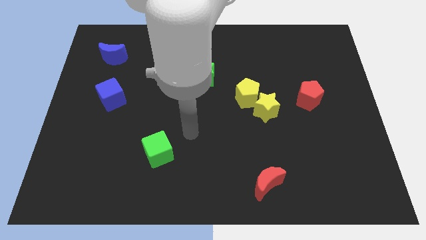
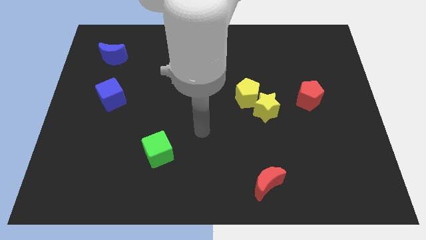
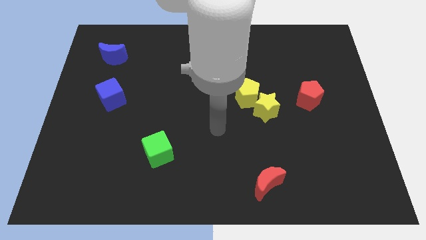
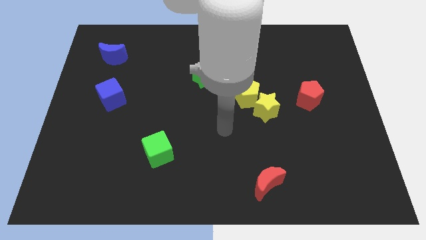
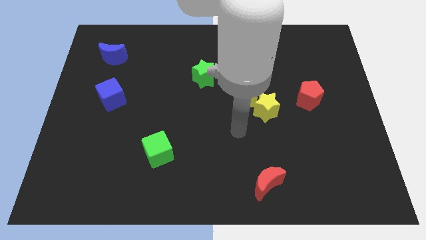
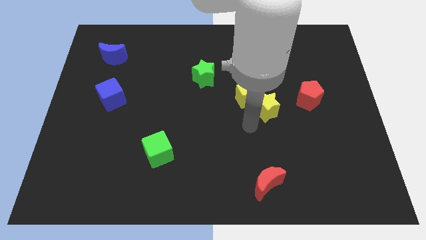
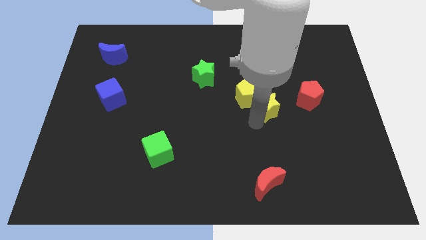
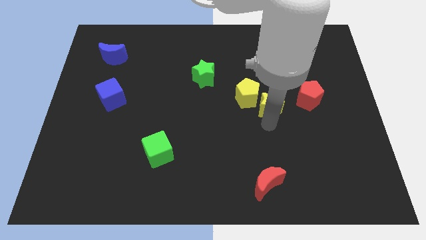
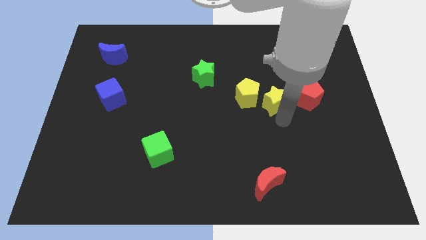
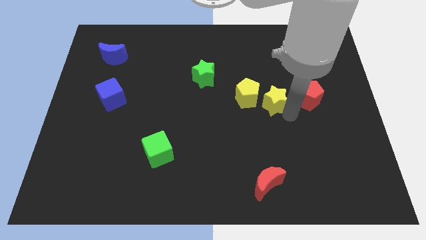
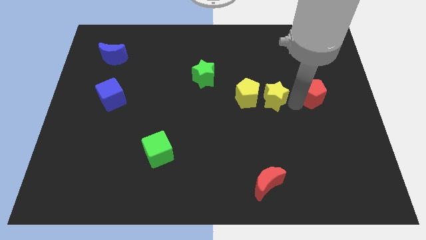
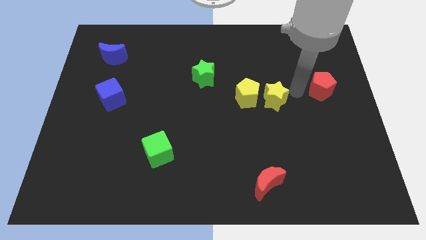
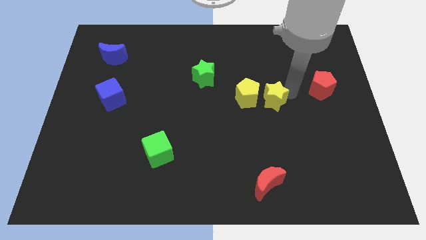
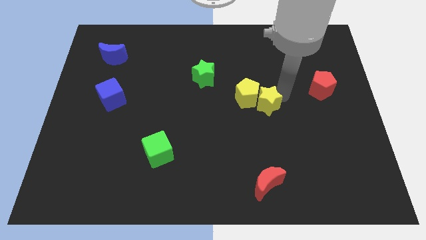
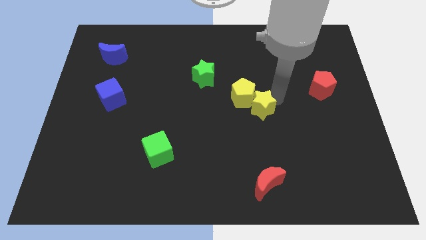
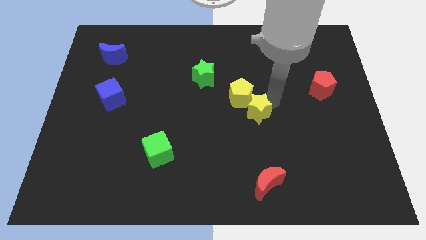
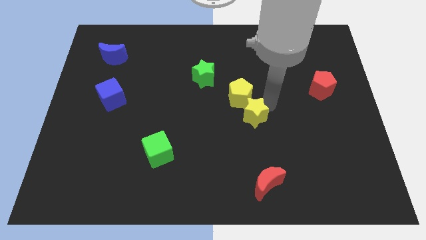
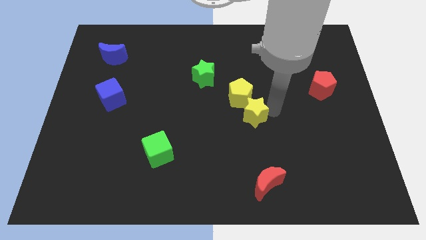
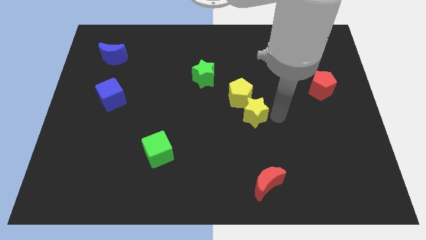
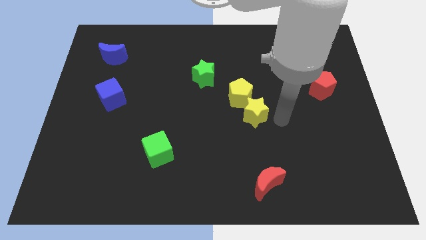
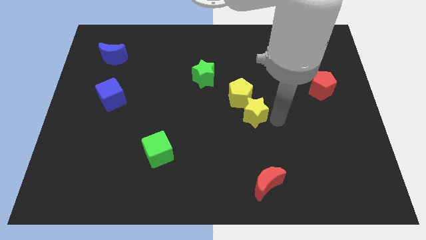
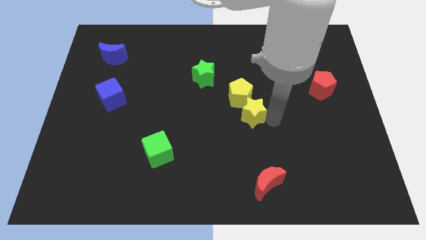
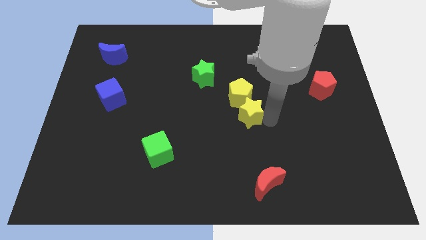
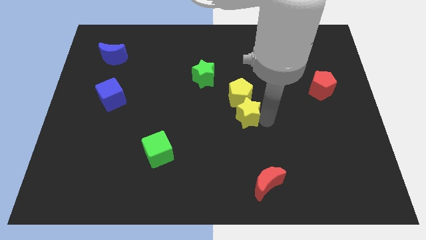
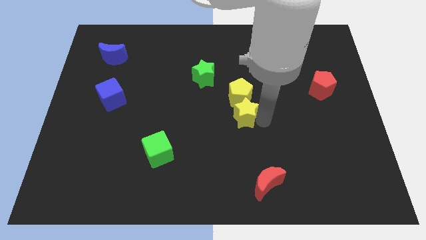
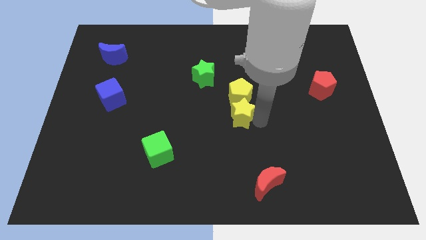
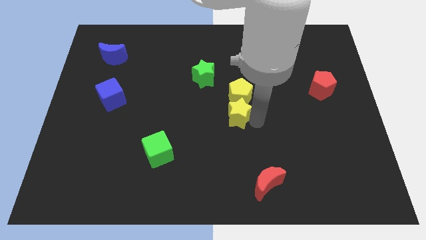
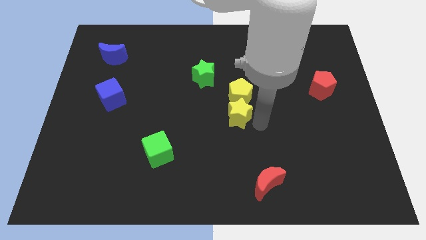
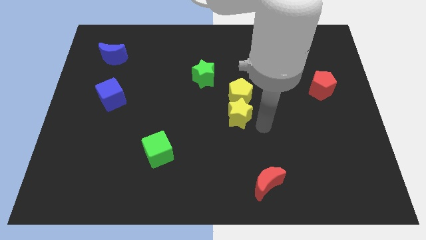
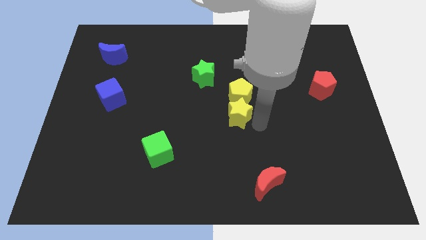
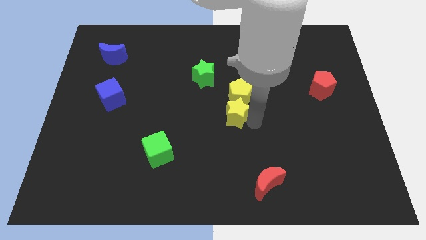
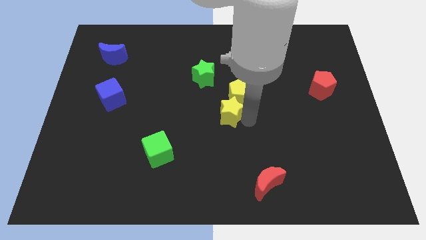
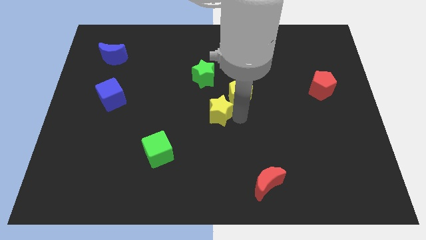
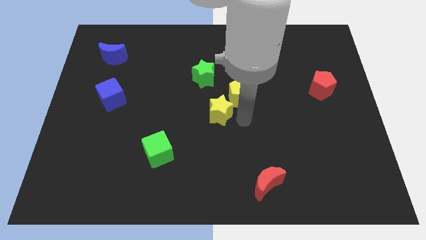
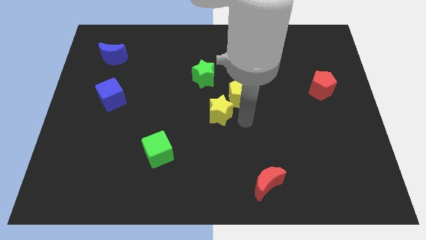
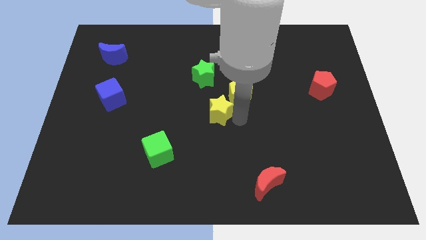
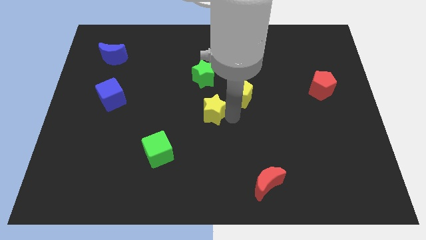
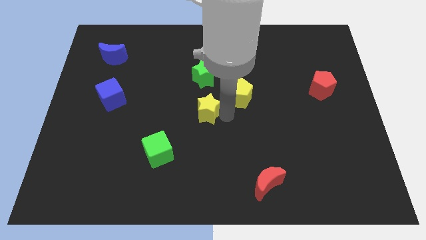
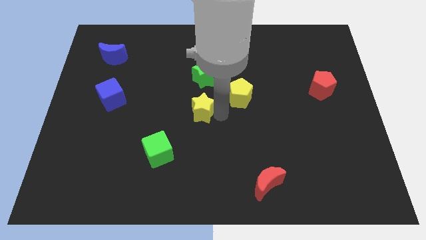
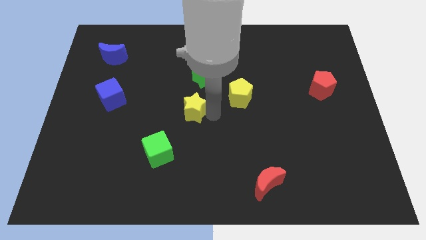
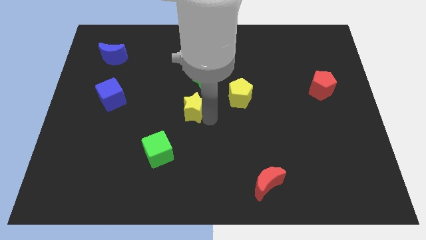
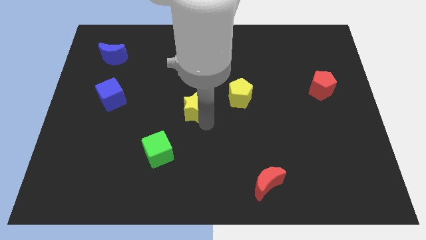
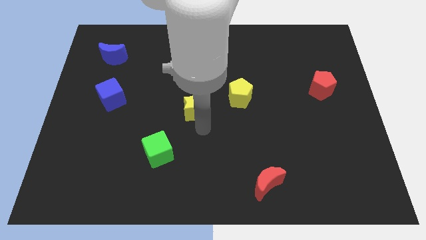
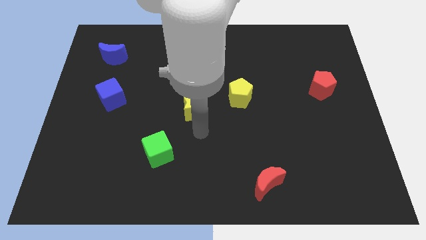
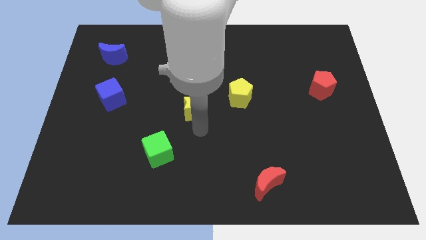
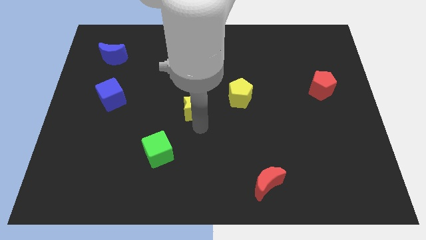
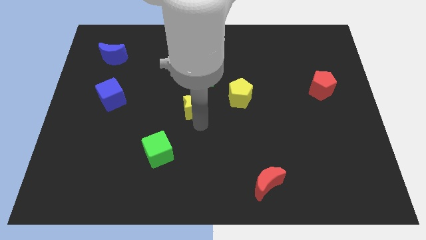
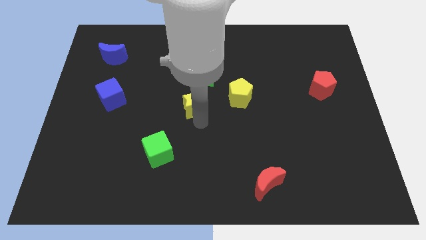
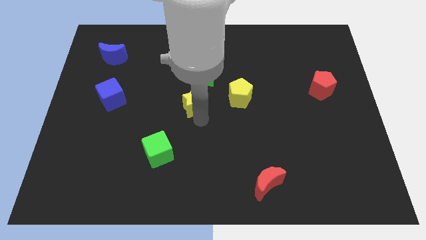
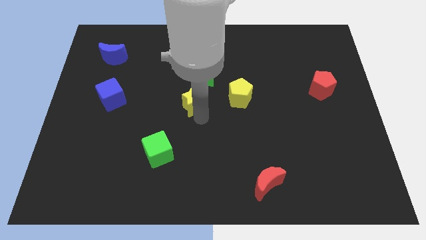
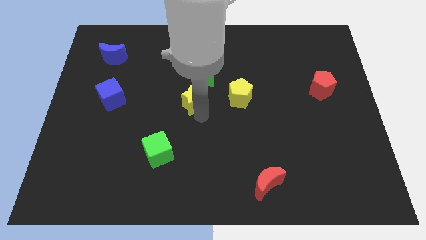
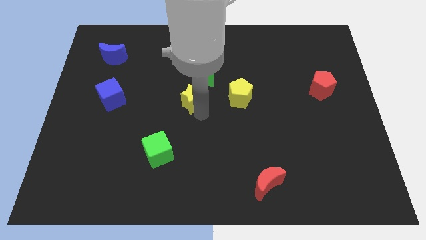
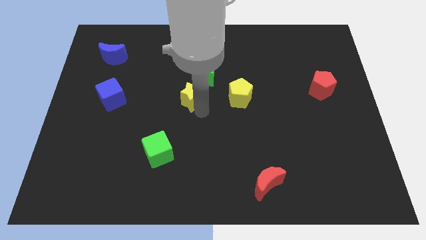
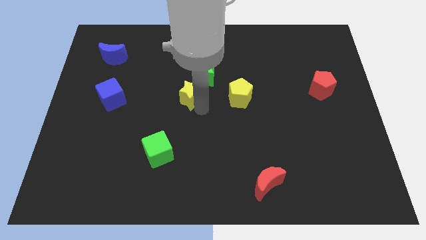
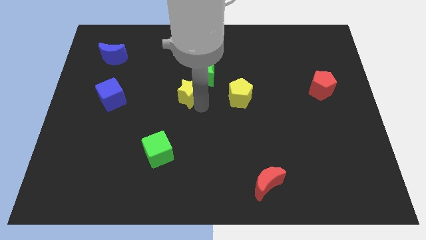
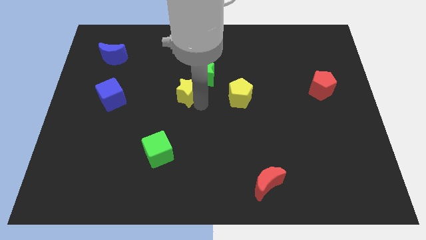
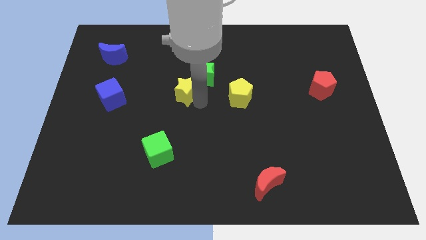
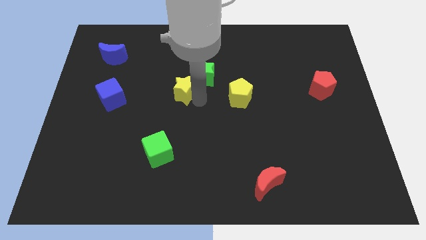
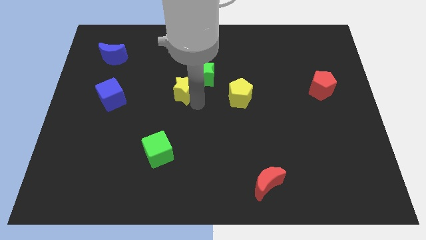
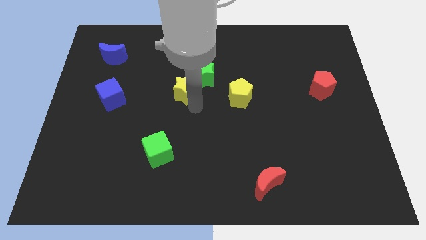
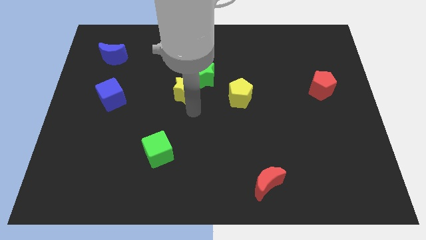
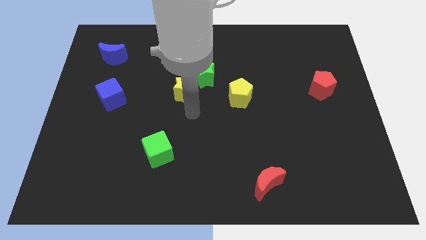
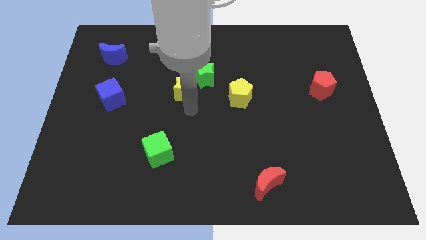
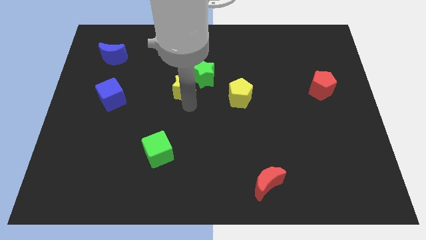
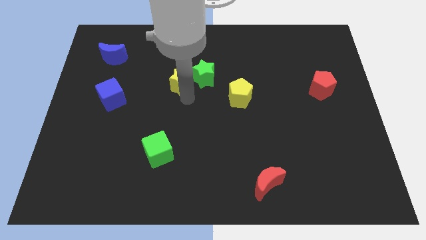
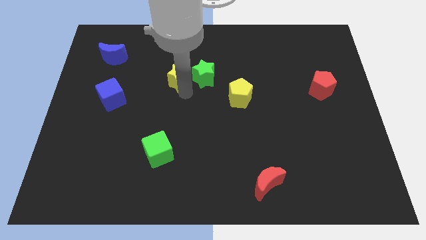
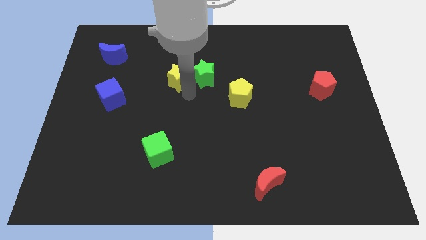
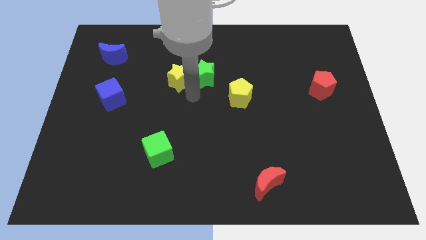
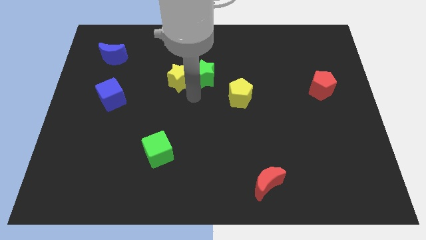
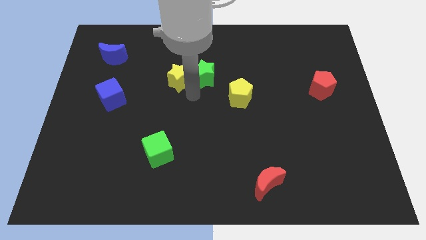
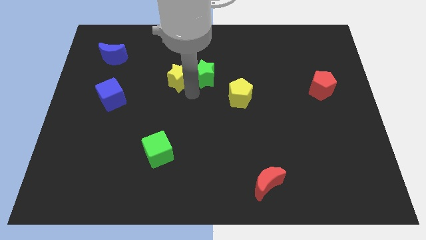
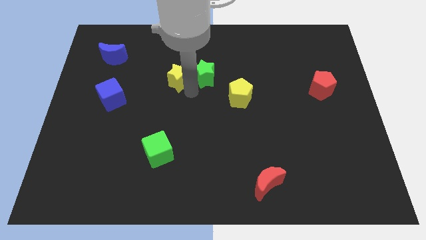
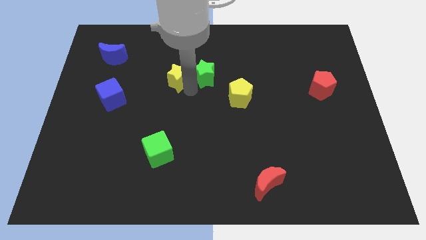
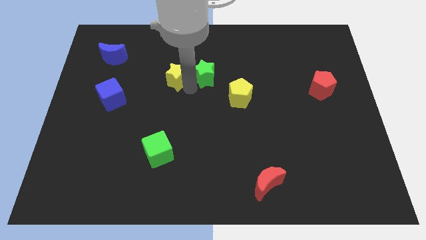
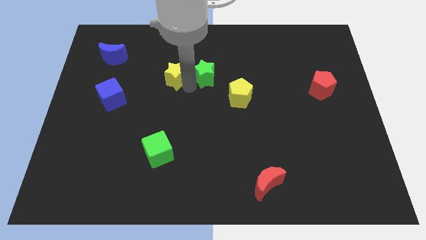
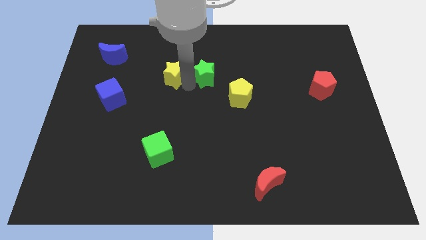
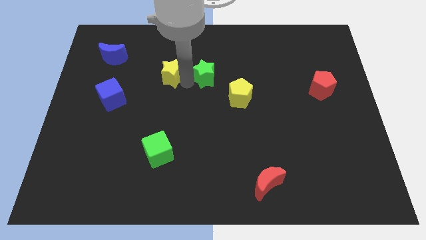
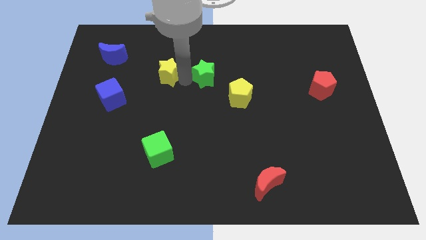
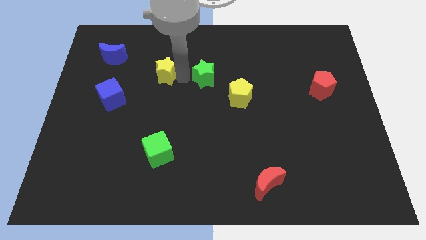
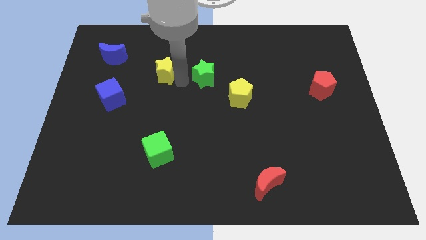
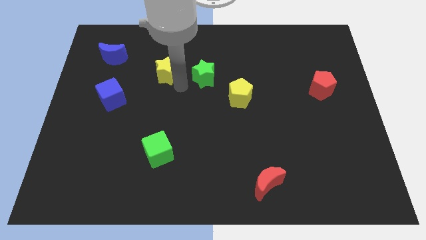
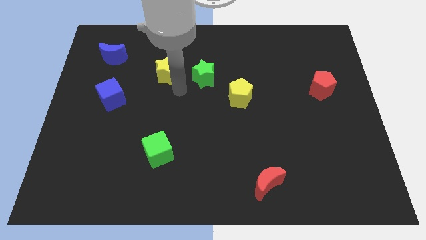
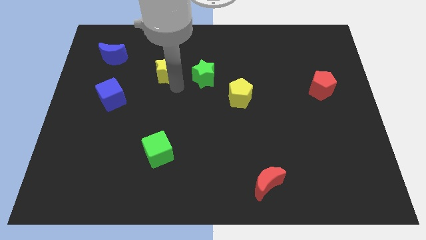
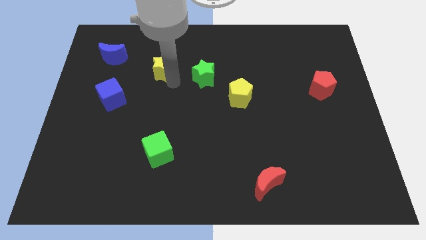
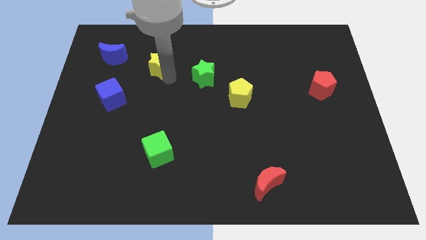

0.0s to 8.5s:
push the yellow star just right of the blue moon
